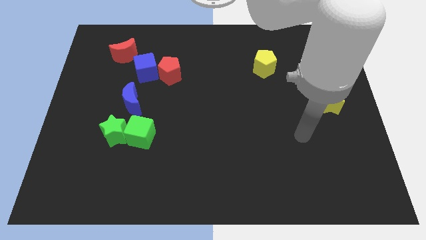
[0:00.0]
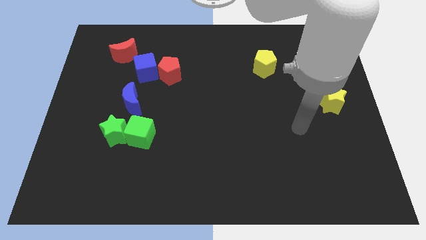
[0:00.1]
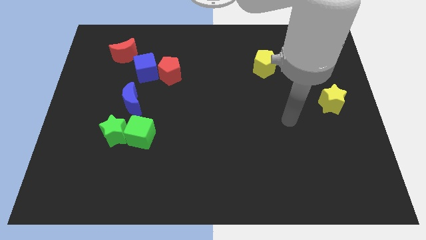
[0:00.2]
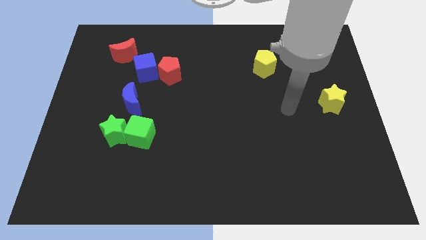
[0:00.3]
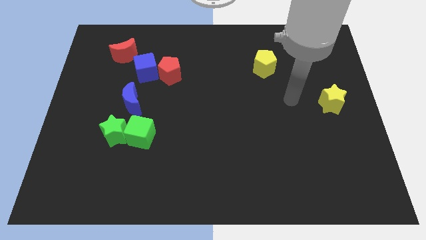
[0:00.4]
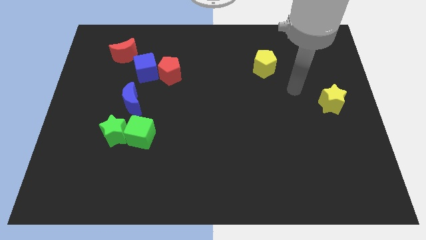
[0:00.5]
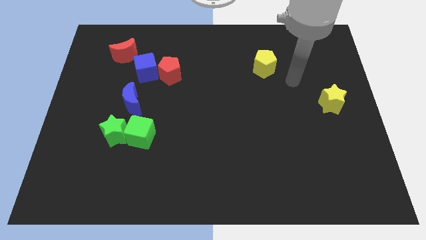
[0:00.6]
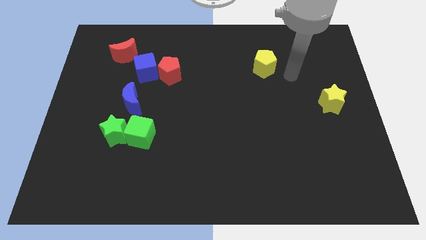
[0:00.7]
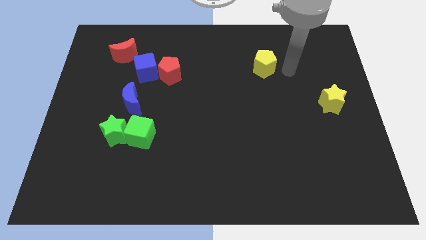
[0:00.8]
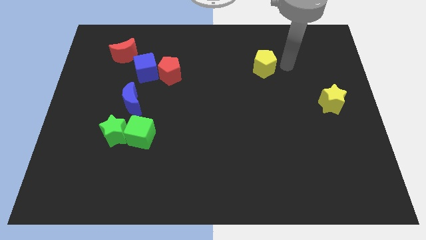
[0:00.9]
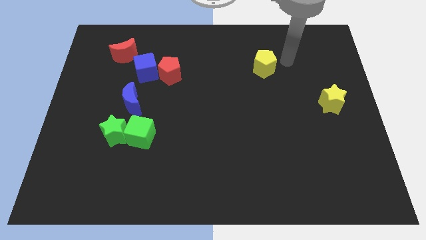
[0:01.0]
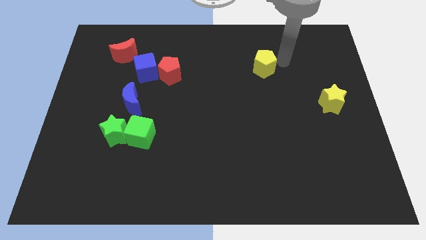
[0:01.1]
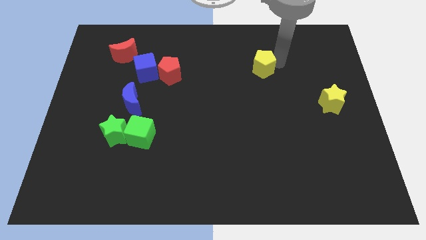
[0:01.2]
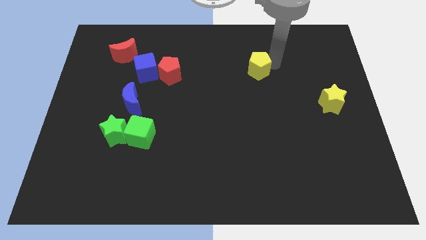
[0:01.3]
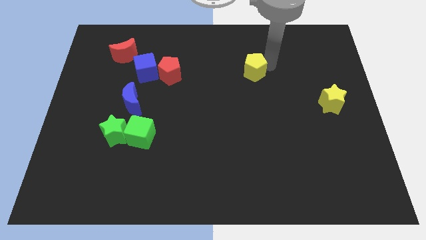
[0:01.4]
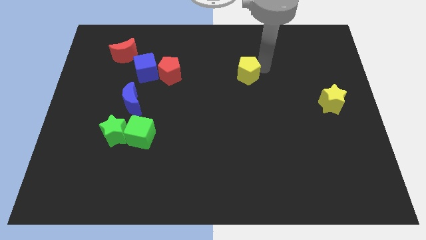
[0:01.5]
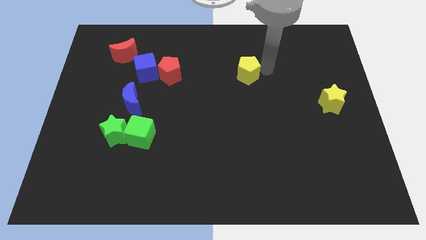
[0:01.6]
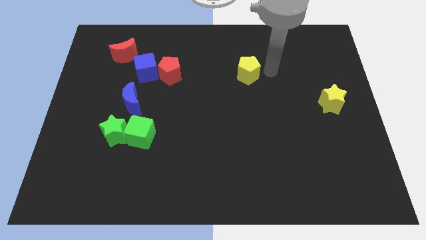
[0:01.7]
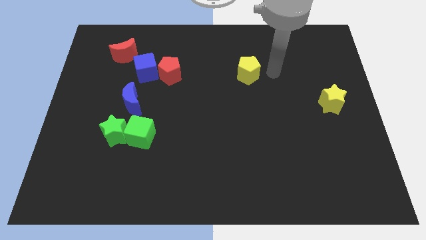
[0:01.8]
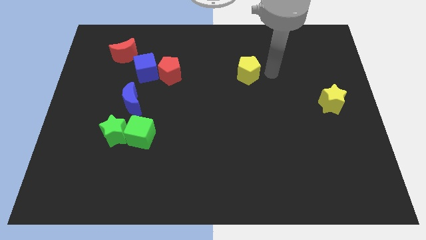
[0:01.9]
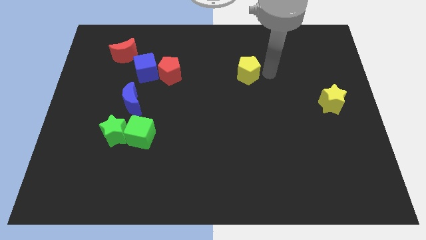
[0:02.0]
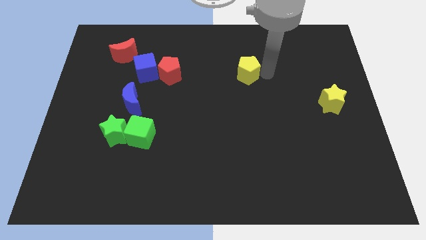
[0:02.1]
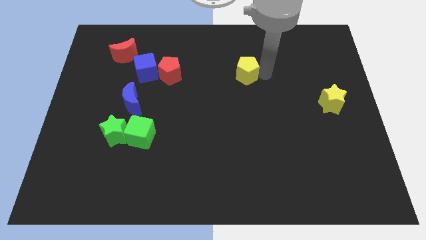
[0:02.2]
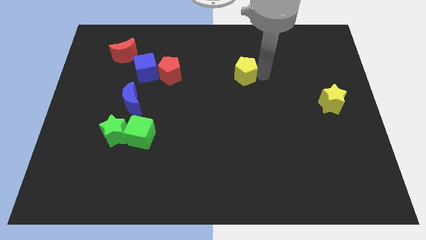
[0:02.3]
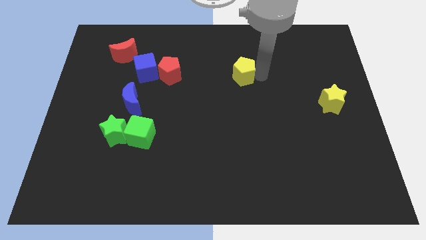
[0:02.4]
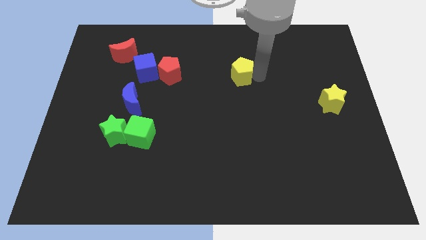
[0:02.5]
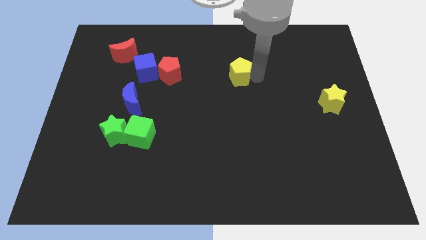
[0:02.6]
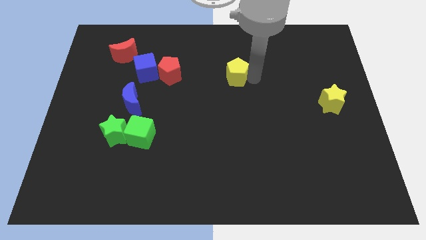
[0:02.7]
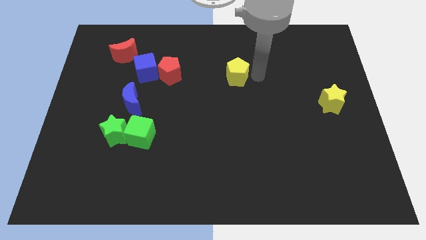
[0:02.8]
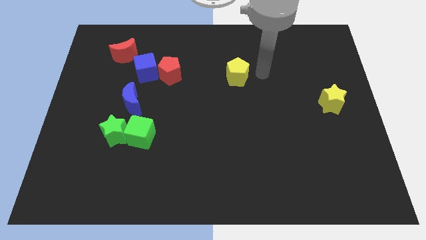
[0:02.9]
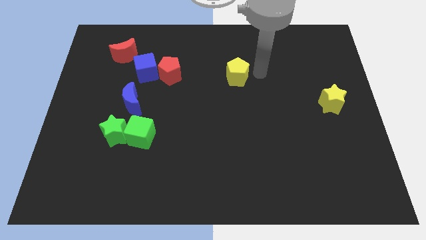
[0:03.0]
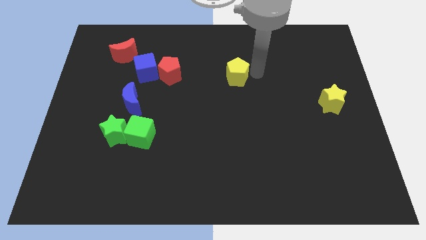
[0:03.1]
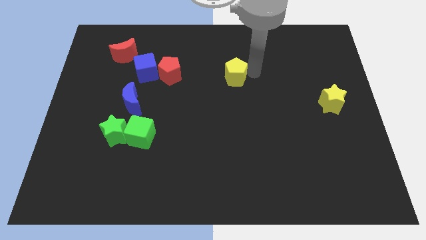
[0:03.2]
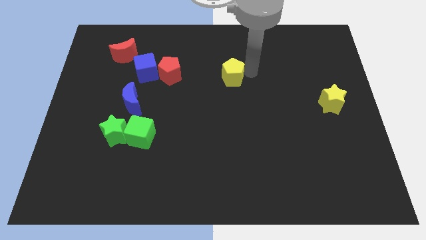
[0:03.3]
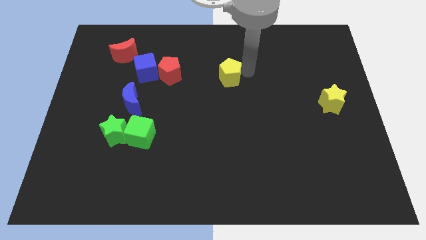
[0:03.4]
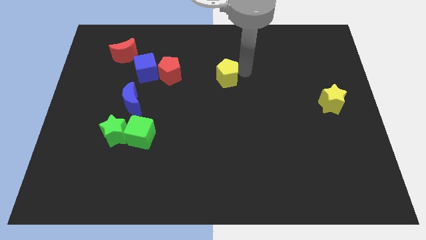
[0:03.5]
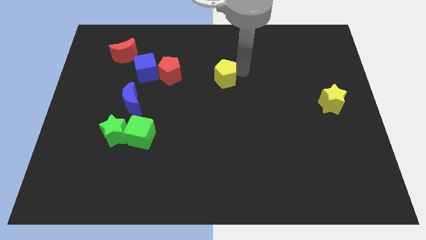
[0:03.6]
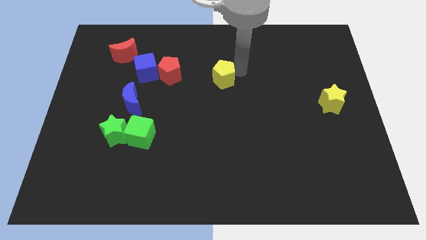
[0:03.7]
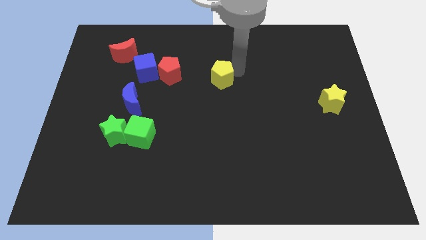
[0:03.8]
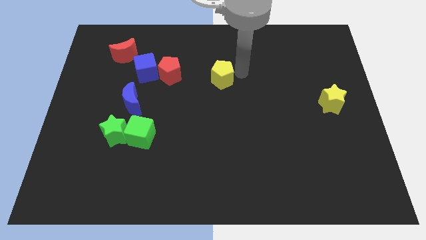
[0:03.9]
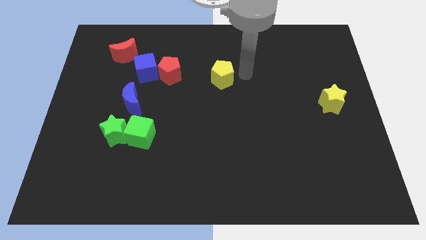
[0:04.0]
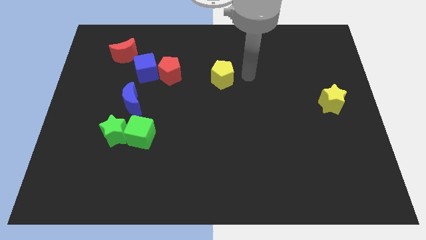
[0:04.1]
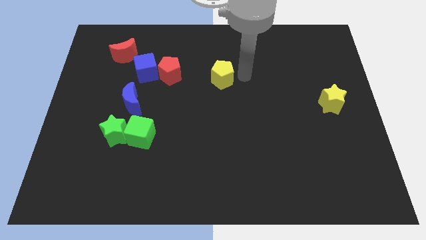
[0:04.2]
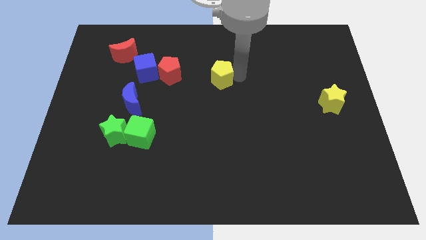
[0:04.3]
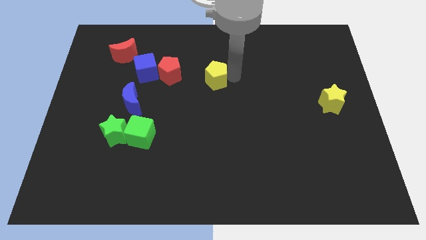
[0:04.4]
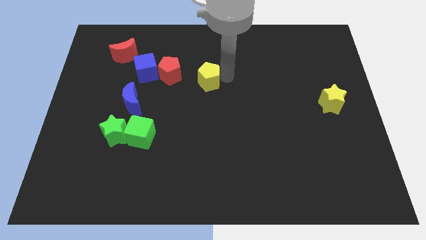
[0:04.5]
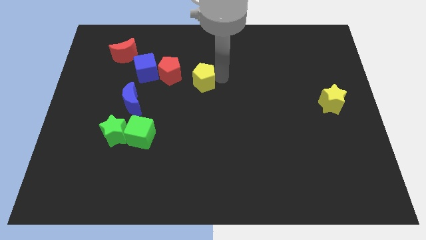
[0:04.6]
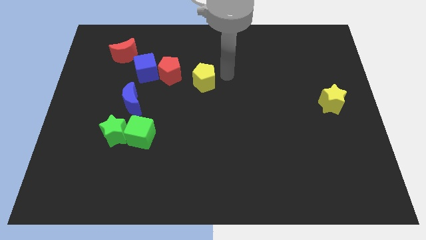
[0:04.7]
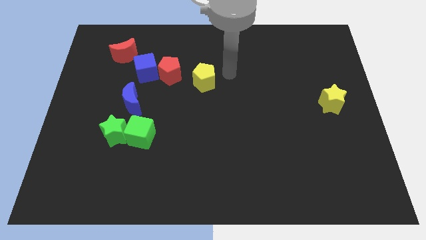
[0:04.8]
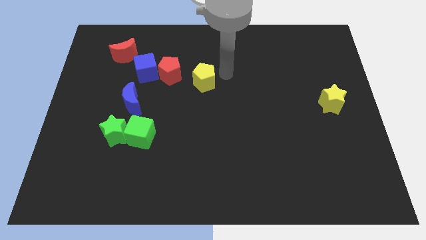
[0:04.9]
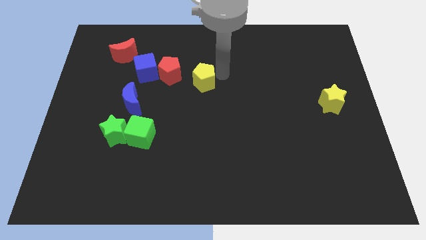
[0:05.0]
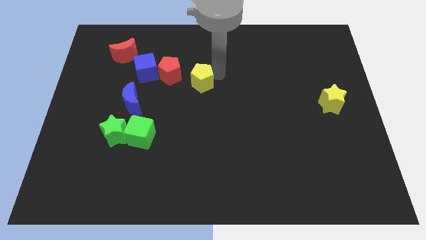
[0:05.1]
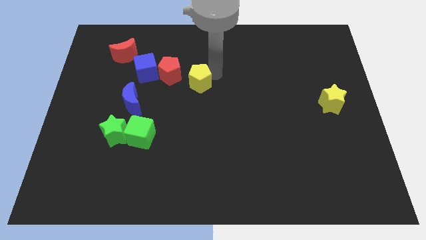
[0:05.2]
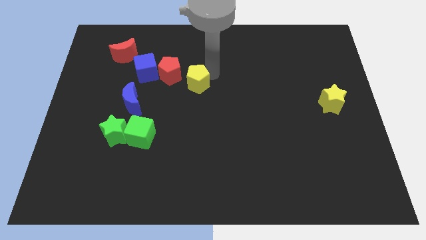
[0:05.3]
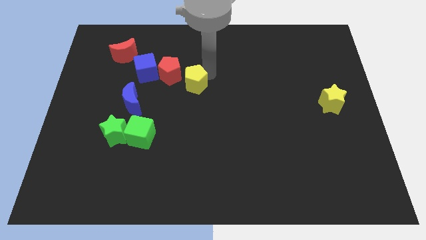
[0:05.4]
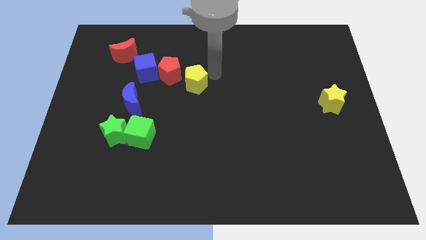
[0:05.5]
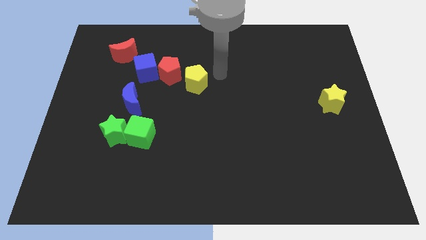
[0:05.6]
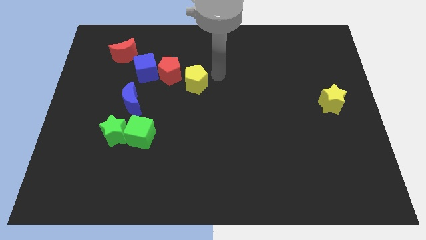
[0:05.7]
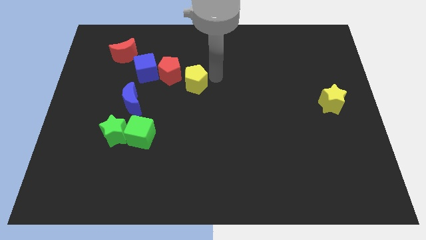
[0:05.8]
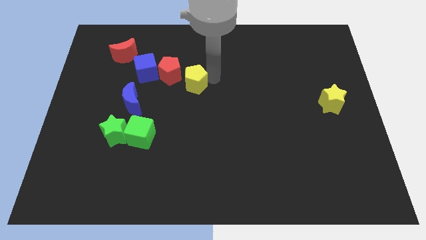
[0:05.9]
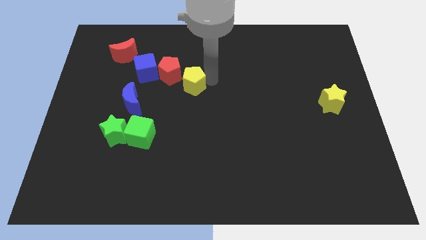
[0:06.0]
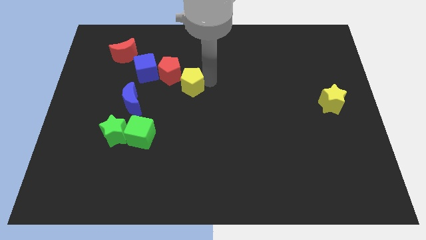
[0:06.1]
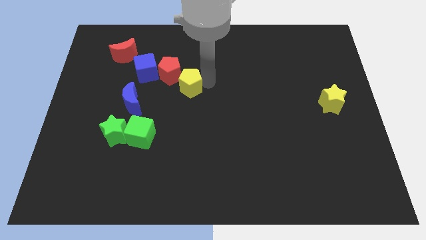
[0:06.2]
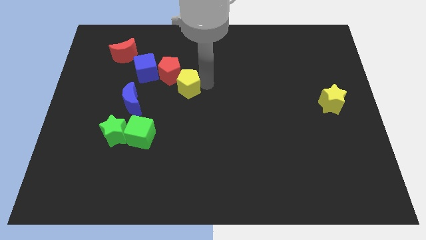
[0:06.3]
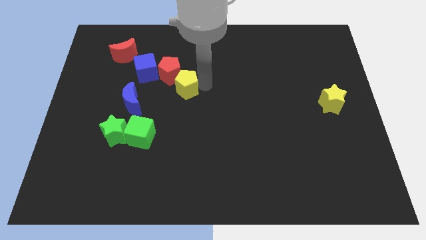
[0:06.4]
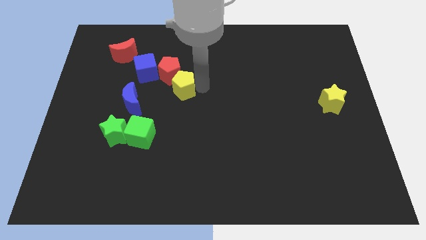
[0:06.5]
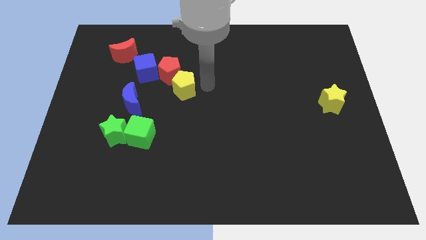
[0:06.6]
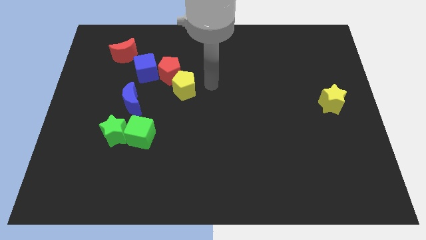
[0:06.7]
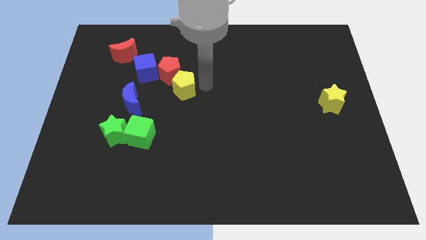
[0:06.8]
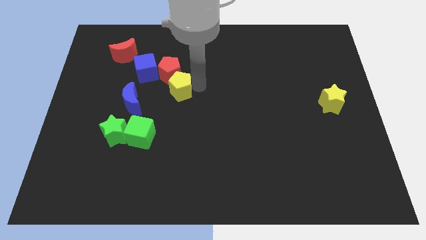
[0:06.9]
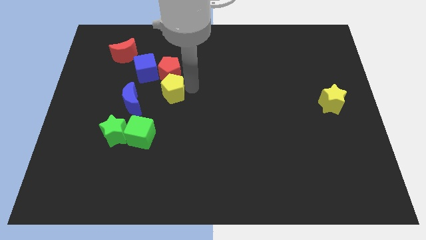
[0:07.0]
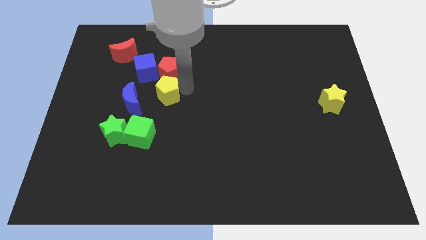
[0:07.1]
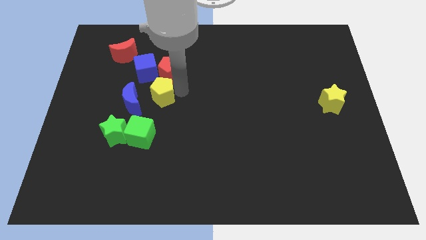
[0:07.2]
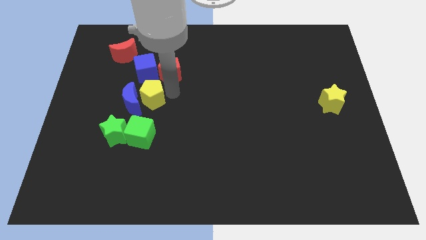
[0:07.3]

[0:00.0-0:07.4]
move the yellow pentagon close to the blue moon
